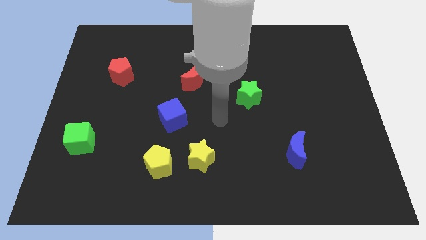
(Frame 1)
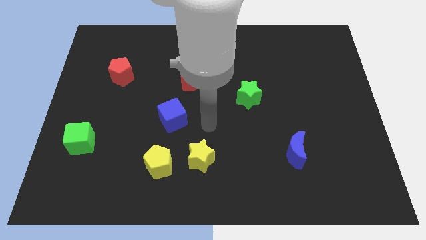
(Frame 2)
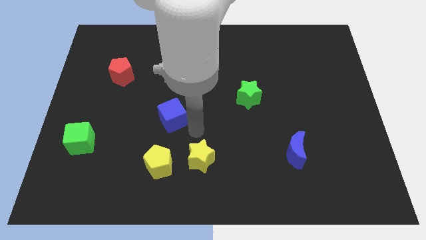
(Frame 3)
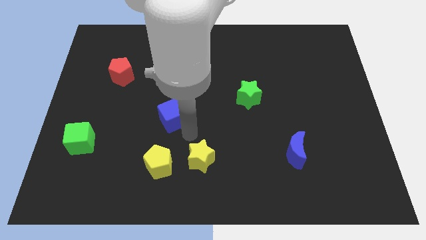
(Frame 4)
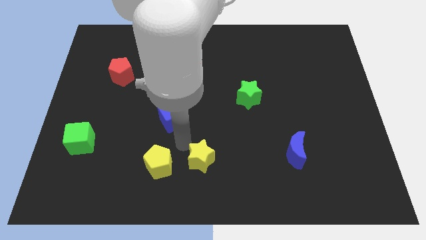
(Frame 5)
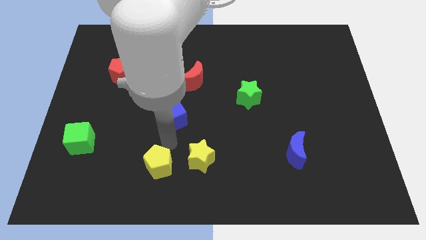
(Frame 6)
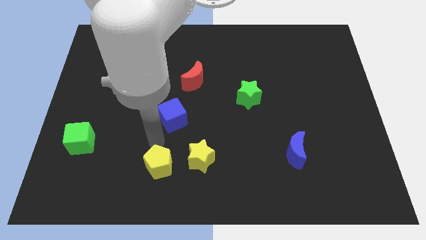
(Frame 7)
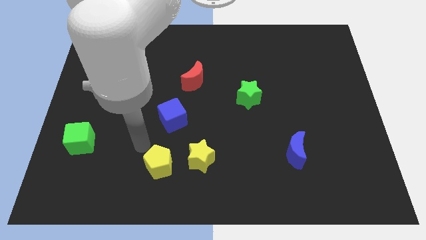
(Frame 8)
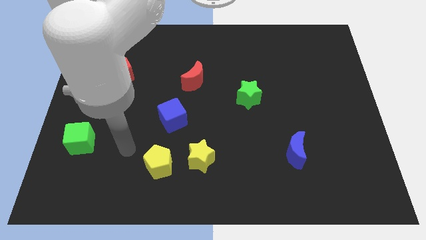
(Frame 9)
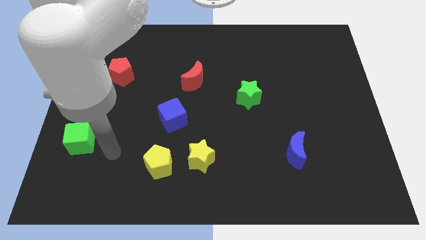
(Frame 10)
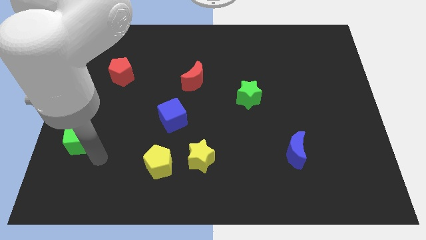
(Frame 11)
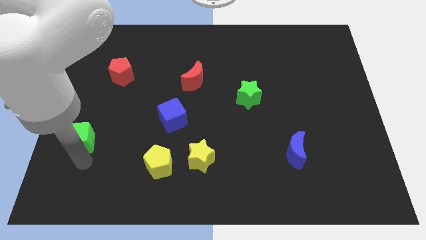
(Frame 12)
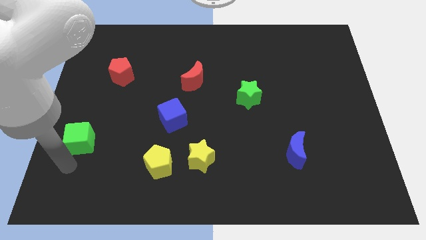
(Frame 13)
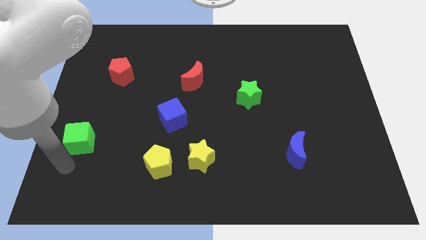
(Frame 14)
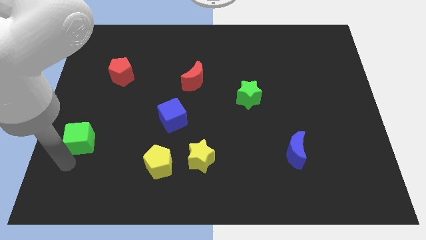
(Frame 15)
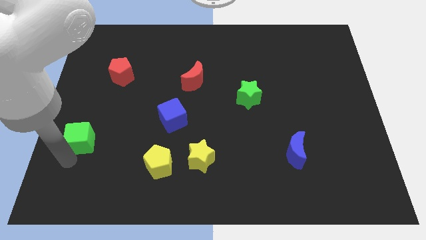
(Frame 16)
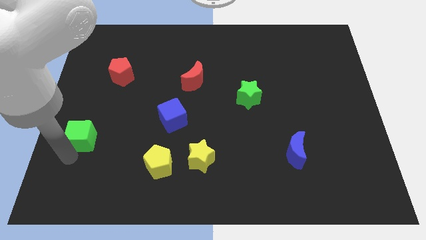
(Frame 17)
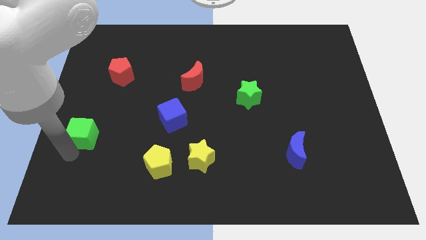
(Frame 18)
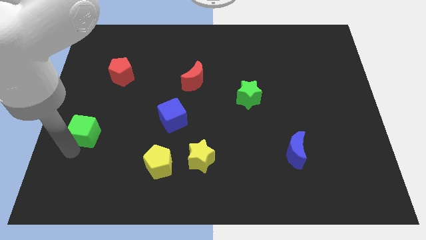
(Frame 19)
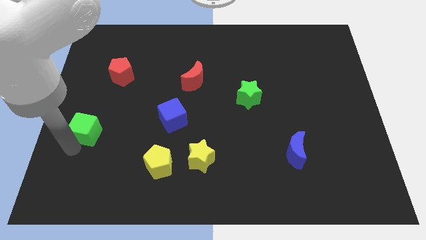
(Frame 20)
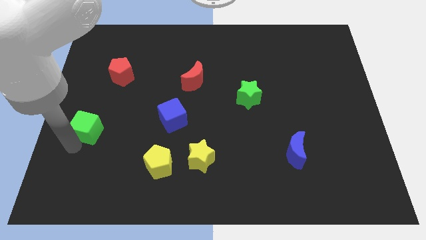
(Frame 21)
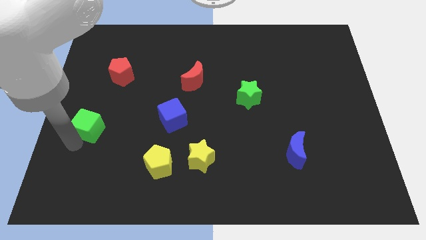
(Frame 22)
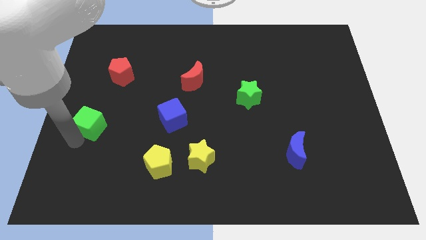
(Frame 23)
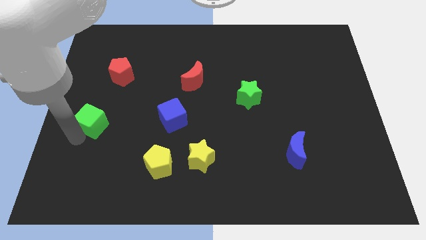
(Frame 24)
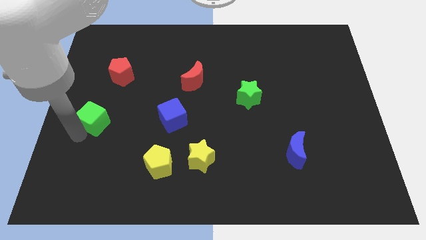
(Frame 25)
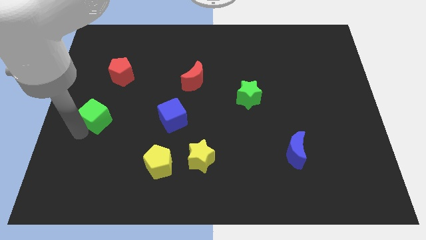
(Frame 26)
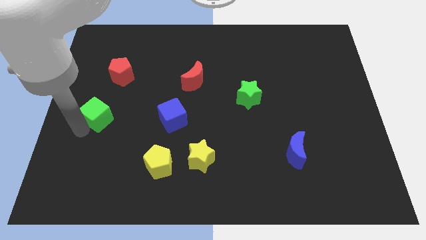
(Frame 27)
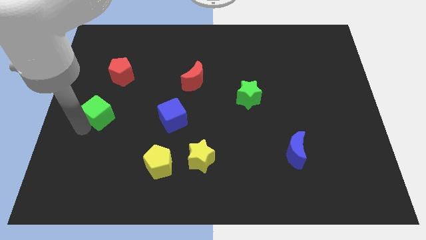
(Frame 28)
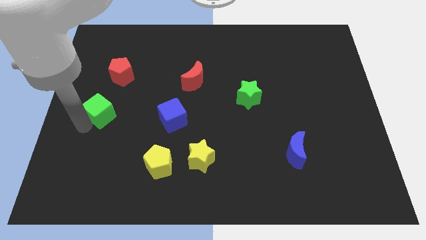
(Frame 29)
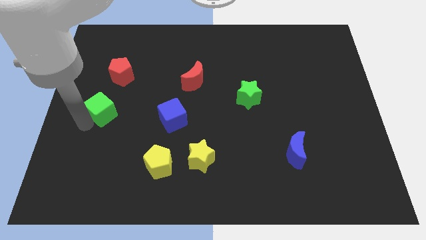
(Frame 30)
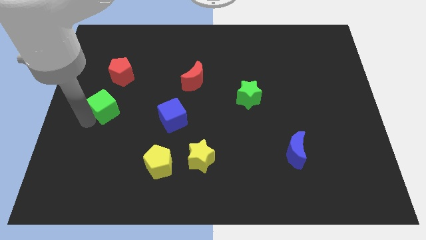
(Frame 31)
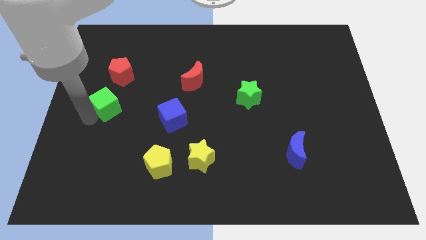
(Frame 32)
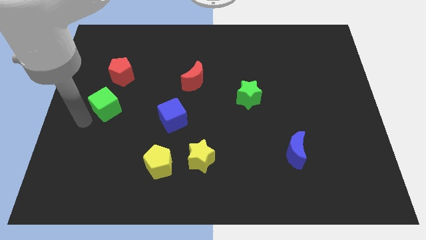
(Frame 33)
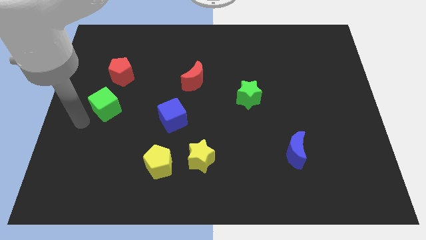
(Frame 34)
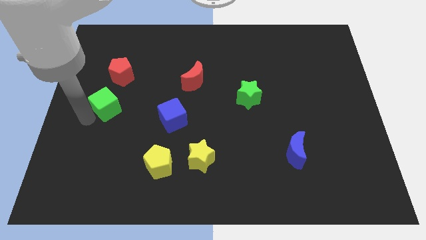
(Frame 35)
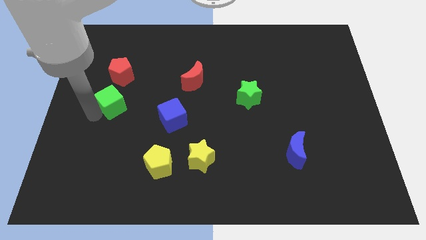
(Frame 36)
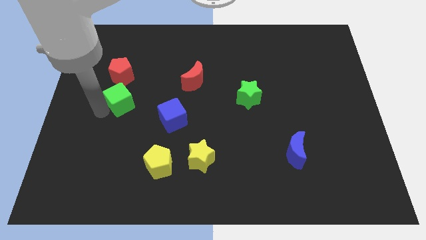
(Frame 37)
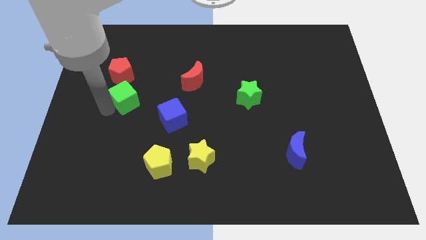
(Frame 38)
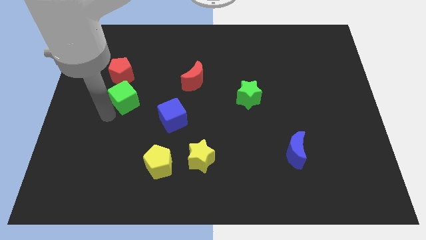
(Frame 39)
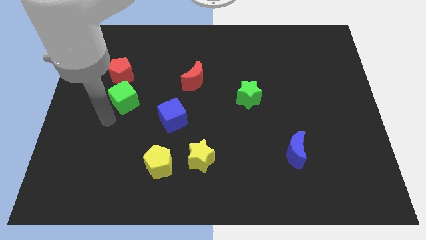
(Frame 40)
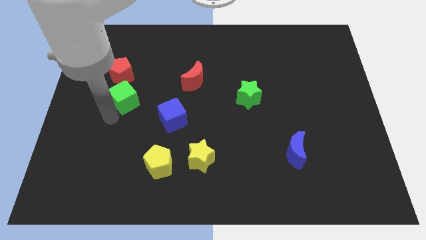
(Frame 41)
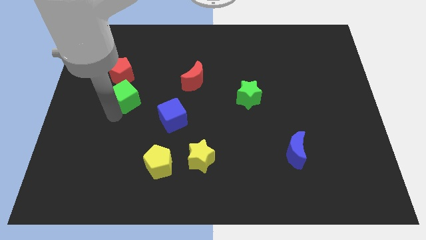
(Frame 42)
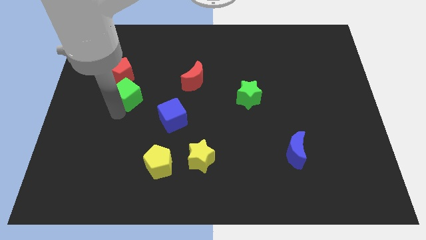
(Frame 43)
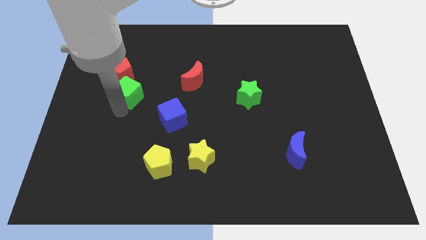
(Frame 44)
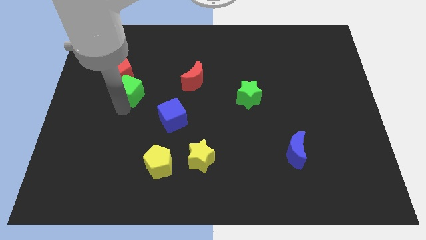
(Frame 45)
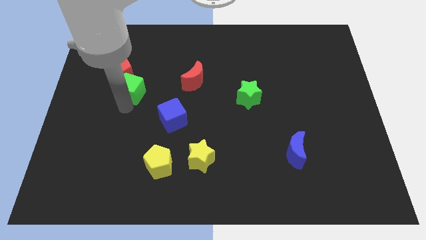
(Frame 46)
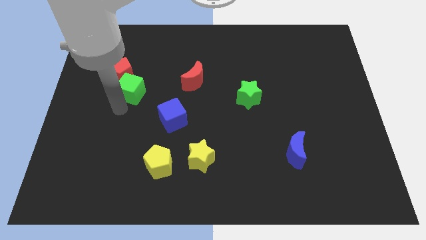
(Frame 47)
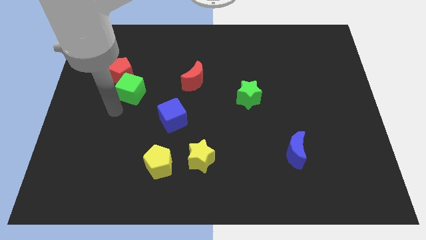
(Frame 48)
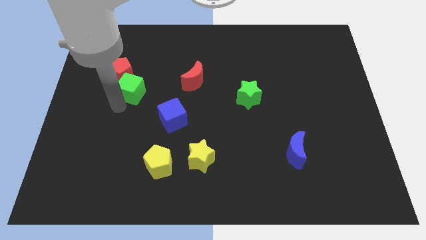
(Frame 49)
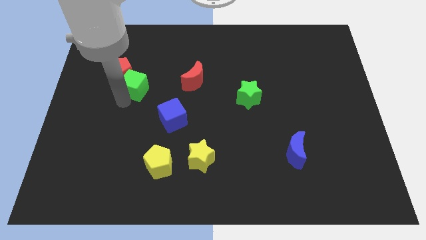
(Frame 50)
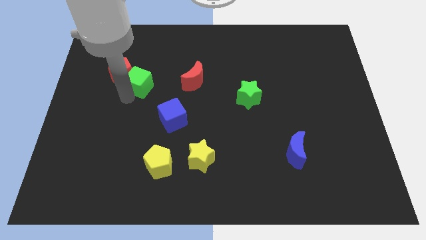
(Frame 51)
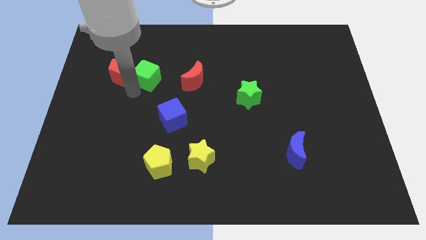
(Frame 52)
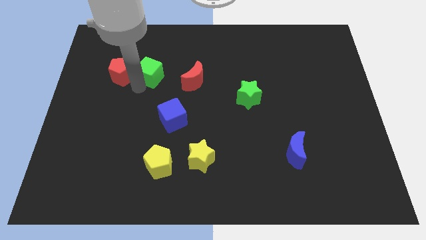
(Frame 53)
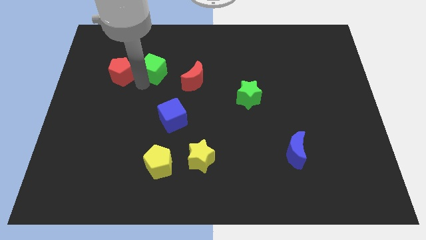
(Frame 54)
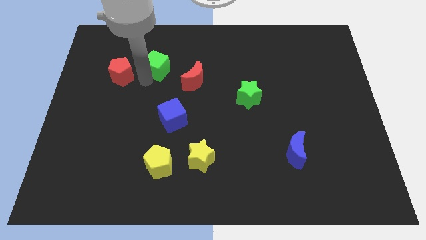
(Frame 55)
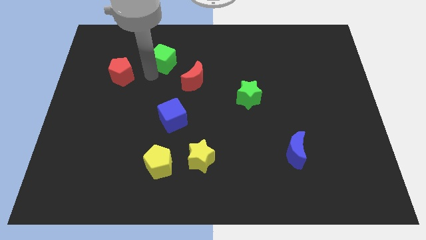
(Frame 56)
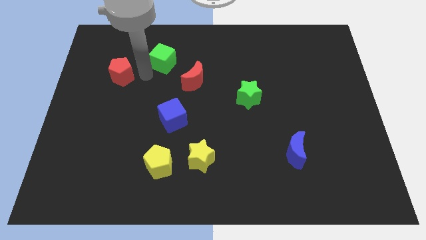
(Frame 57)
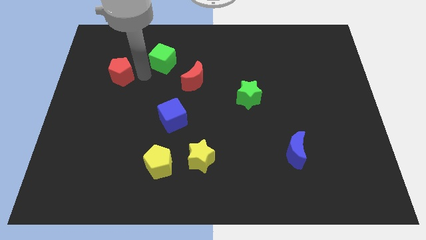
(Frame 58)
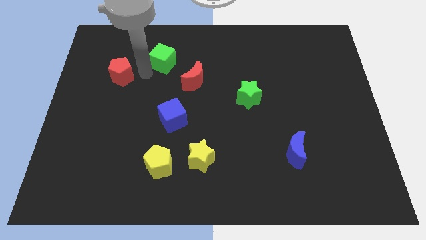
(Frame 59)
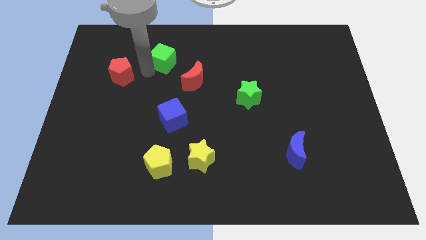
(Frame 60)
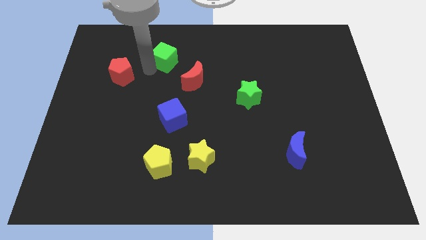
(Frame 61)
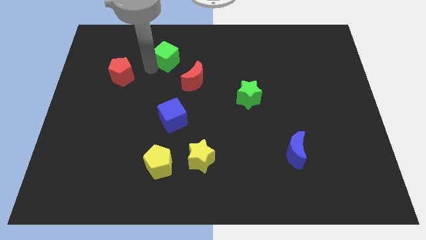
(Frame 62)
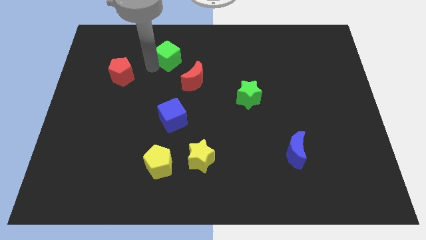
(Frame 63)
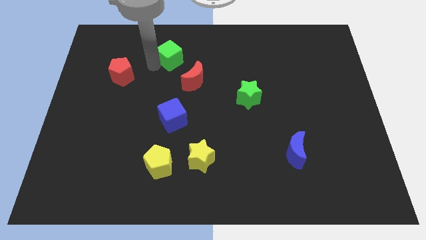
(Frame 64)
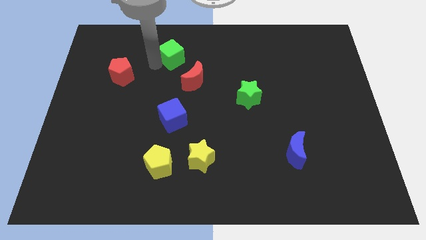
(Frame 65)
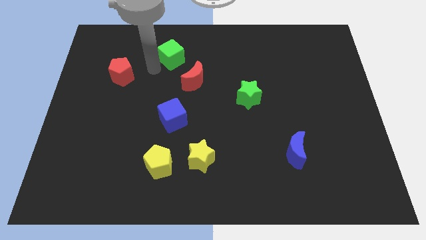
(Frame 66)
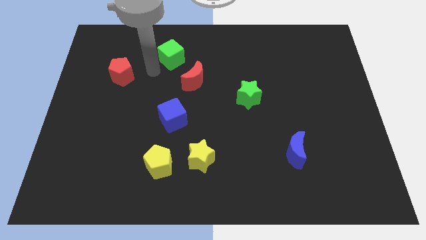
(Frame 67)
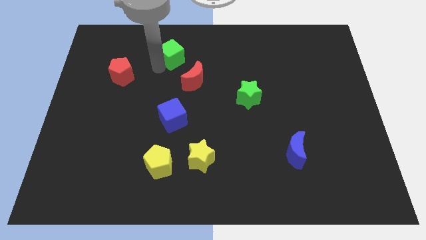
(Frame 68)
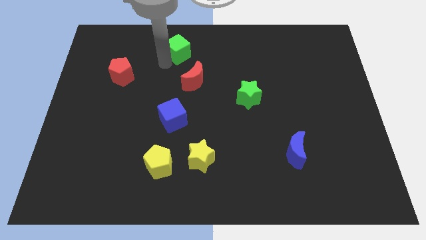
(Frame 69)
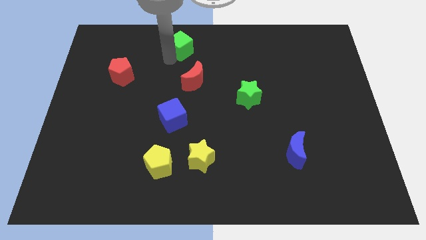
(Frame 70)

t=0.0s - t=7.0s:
slide the green cube to the top
